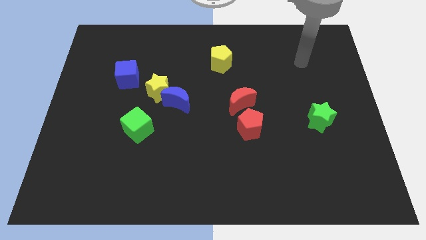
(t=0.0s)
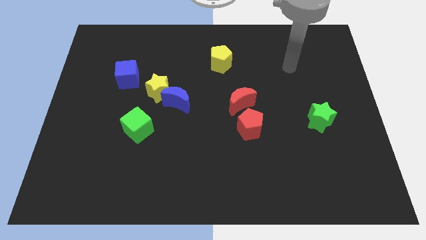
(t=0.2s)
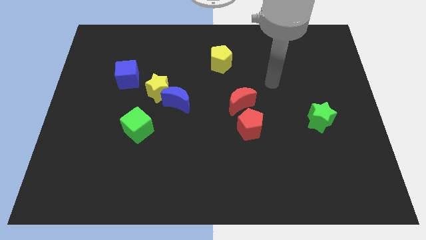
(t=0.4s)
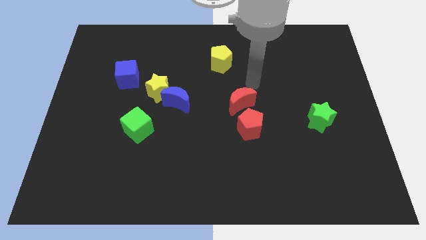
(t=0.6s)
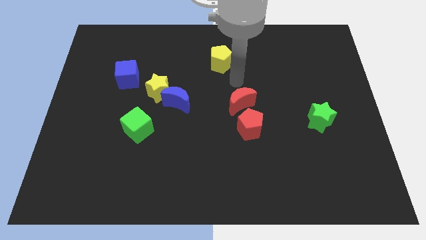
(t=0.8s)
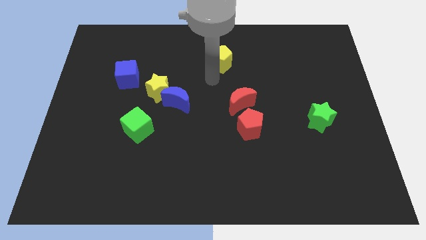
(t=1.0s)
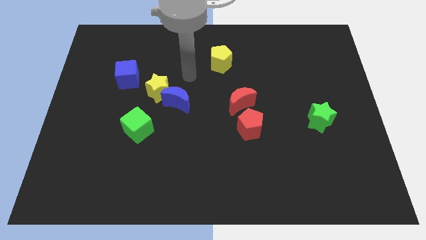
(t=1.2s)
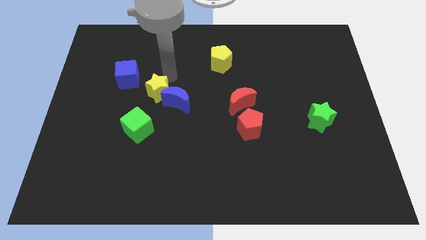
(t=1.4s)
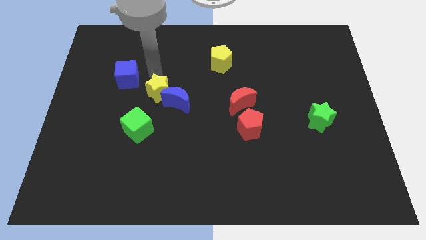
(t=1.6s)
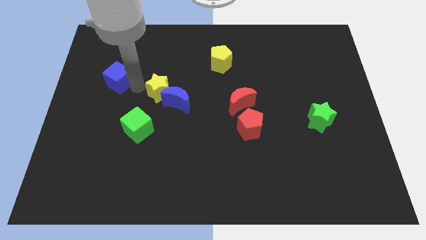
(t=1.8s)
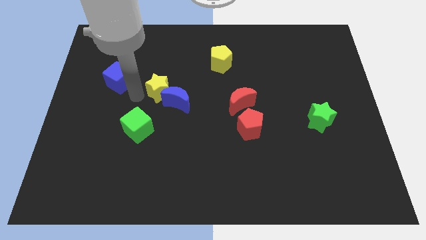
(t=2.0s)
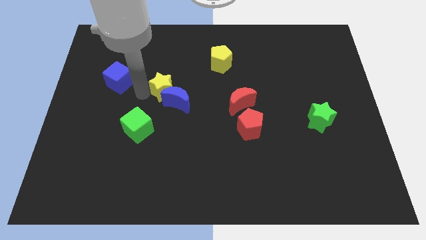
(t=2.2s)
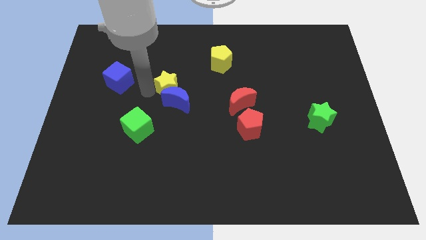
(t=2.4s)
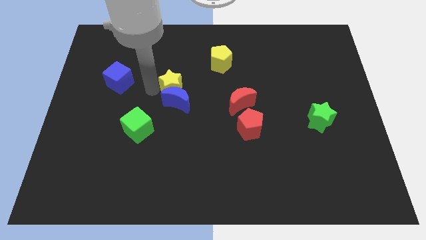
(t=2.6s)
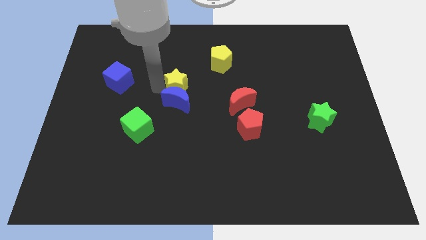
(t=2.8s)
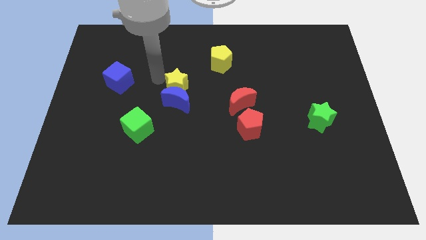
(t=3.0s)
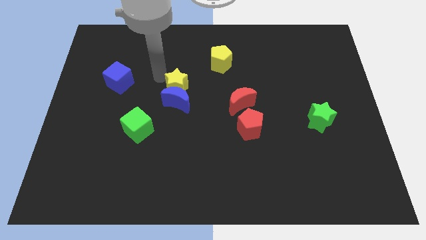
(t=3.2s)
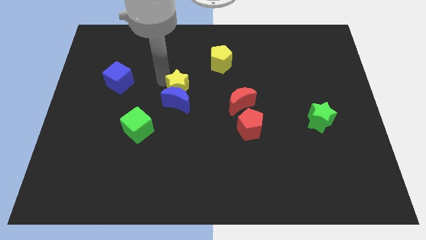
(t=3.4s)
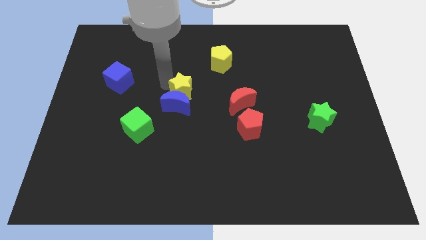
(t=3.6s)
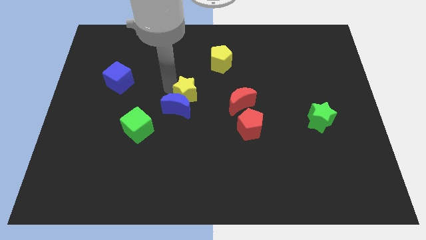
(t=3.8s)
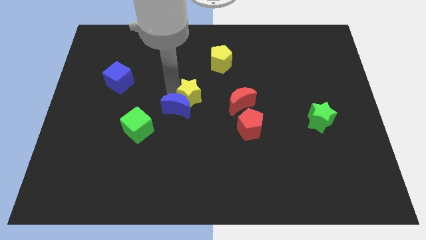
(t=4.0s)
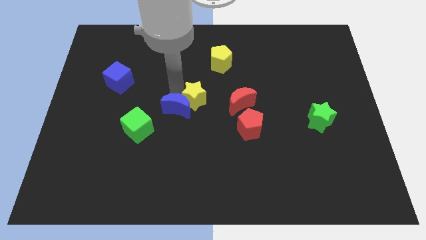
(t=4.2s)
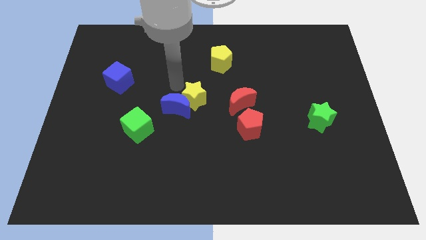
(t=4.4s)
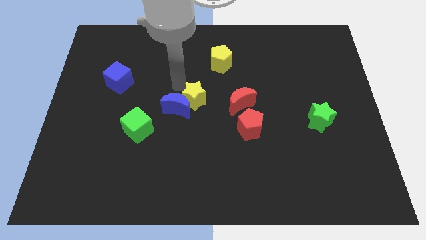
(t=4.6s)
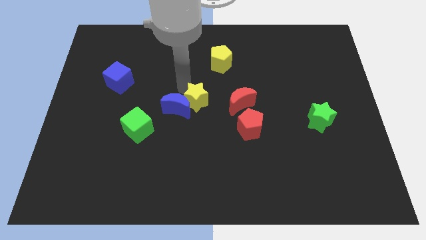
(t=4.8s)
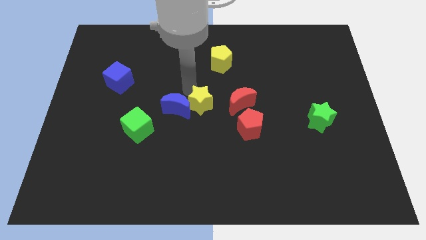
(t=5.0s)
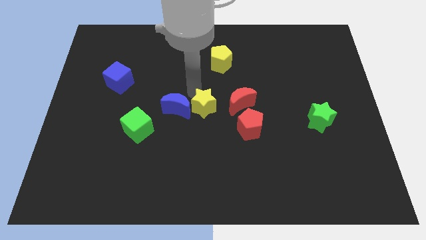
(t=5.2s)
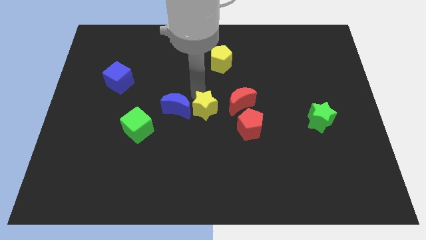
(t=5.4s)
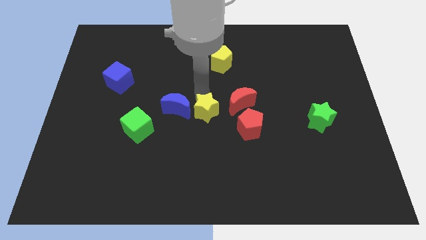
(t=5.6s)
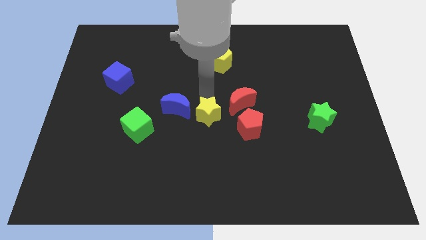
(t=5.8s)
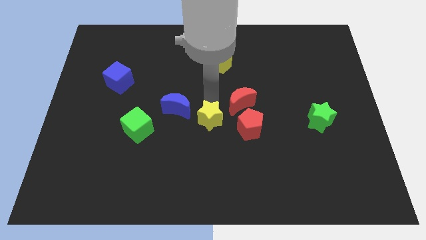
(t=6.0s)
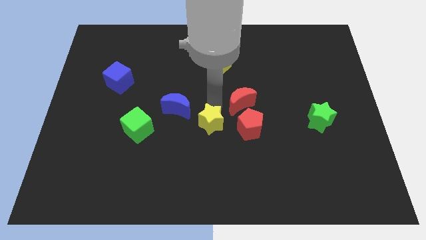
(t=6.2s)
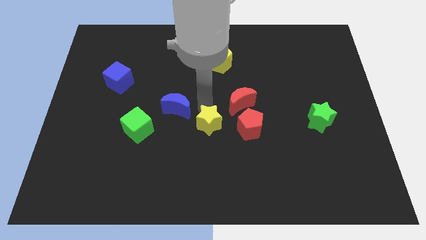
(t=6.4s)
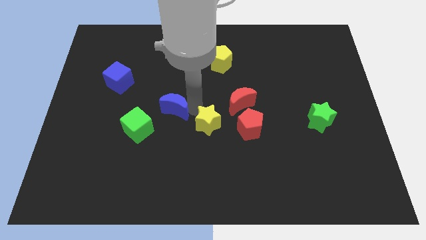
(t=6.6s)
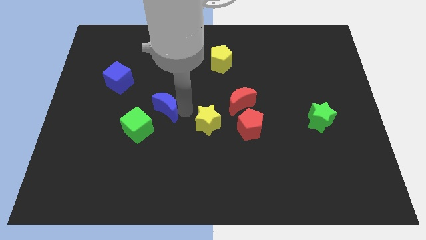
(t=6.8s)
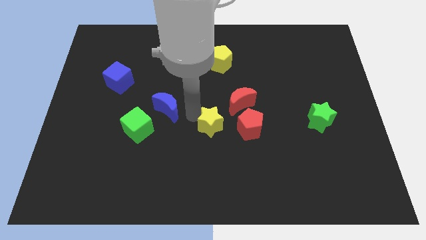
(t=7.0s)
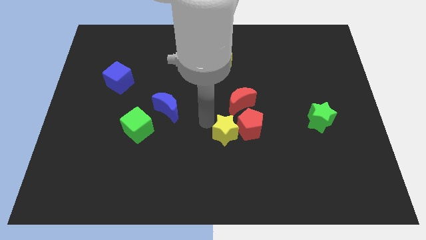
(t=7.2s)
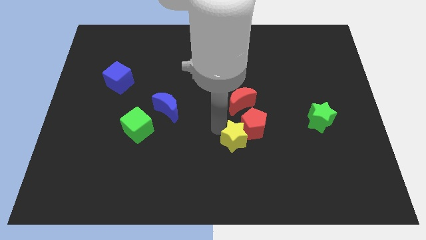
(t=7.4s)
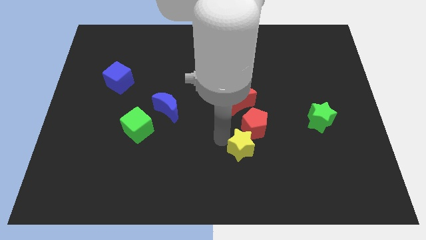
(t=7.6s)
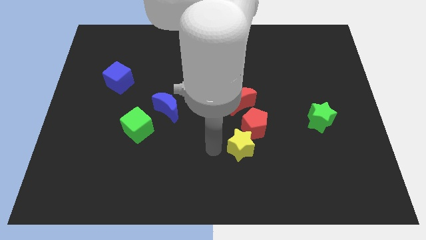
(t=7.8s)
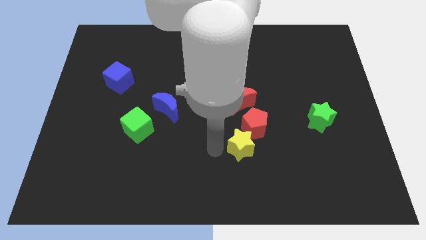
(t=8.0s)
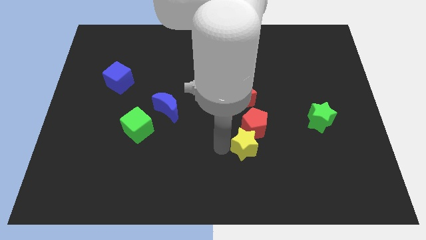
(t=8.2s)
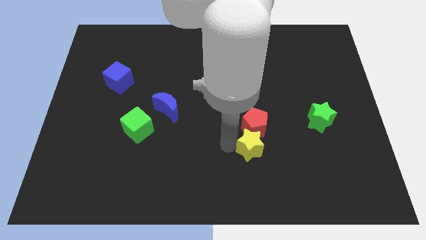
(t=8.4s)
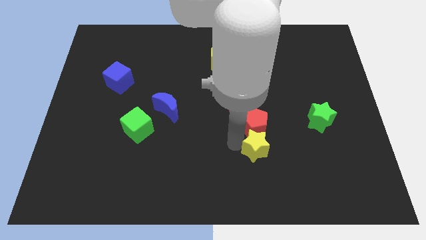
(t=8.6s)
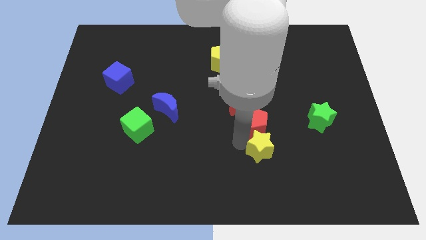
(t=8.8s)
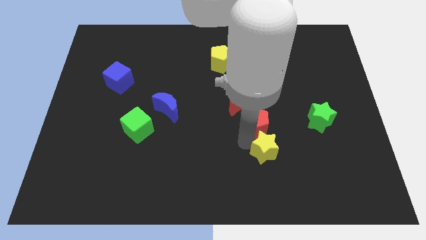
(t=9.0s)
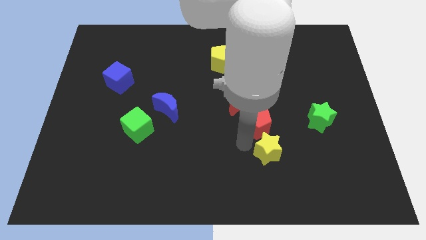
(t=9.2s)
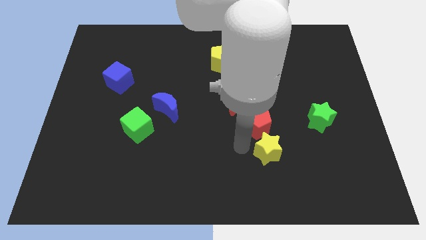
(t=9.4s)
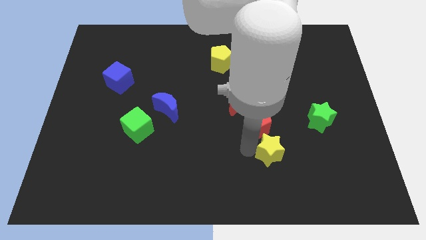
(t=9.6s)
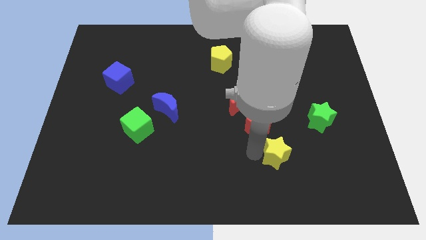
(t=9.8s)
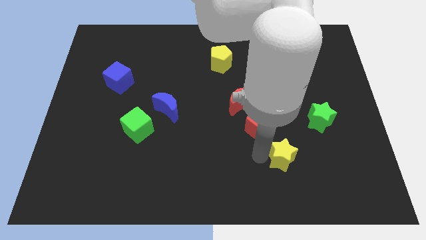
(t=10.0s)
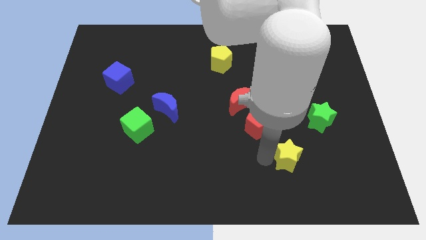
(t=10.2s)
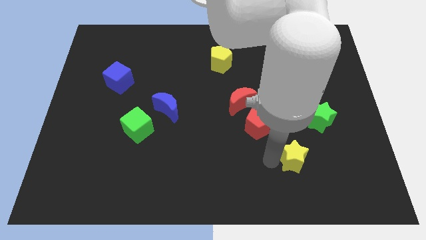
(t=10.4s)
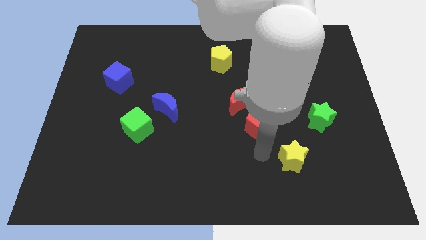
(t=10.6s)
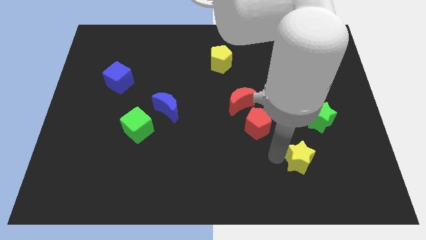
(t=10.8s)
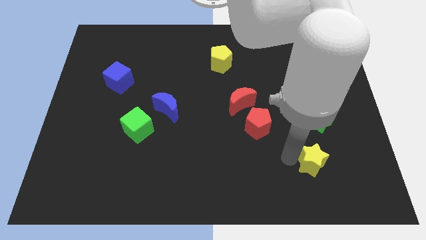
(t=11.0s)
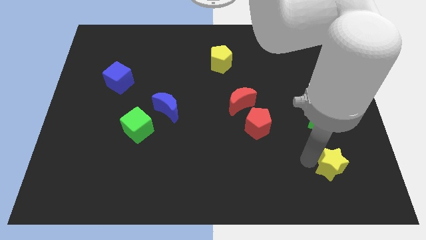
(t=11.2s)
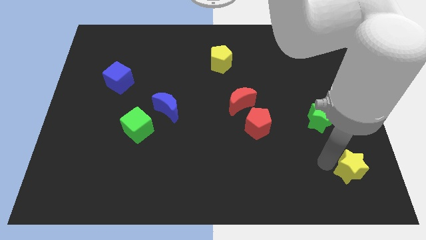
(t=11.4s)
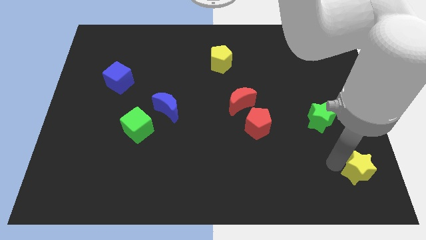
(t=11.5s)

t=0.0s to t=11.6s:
push the yellow star to the lower right corner
